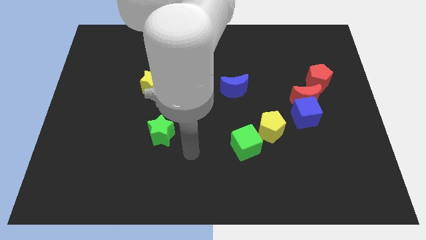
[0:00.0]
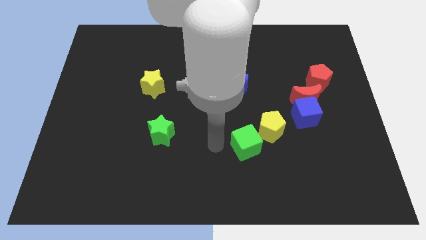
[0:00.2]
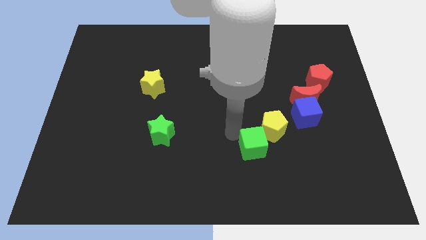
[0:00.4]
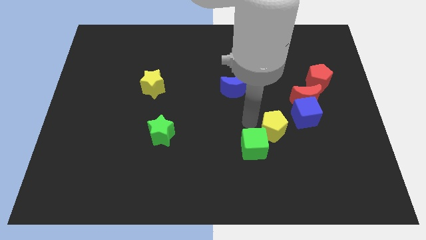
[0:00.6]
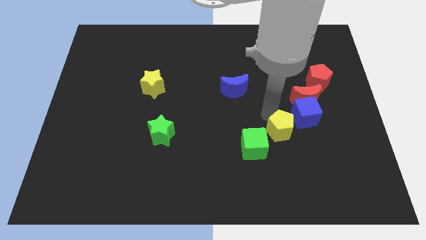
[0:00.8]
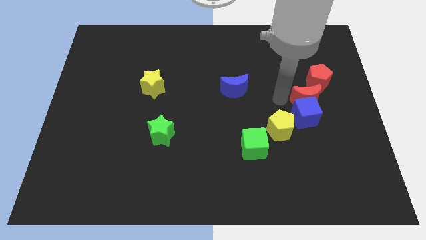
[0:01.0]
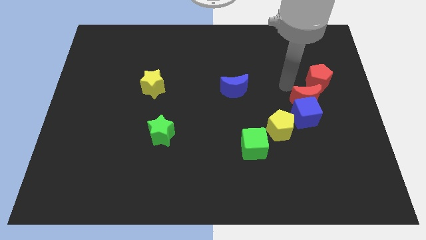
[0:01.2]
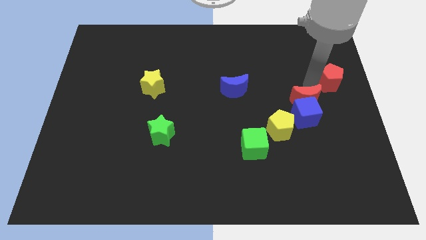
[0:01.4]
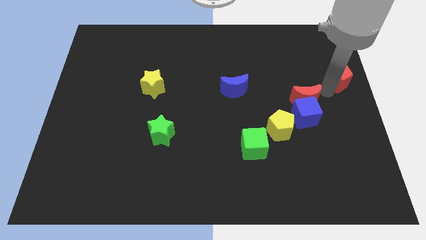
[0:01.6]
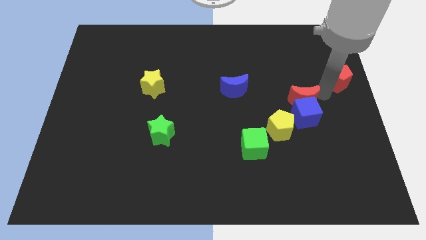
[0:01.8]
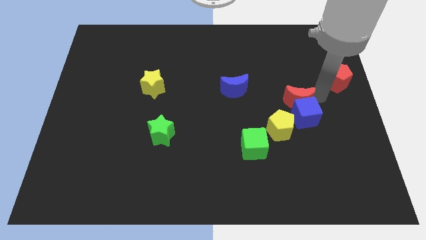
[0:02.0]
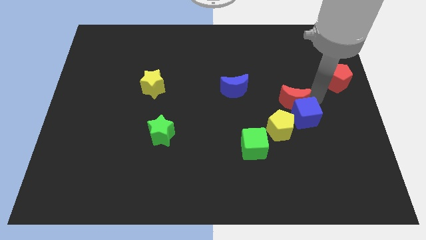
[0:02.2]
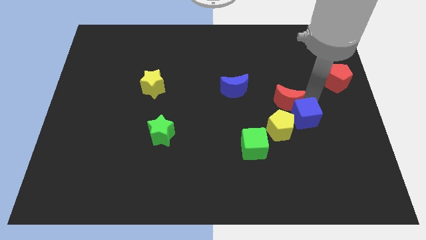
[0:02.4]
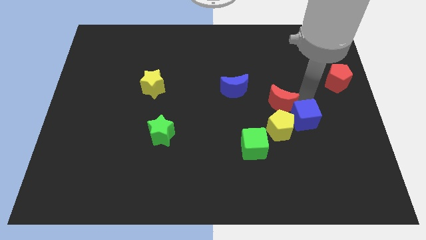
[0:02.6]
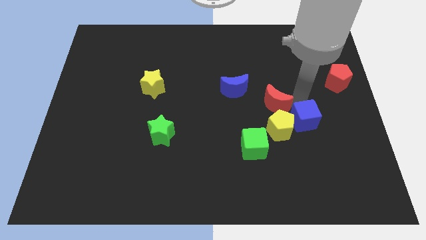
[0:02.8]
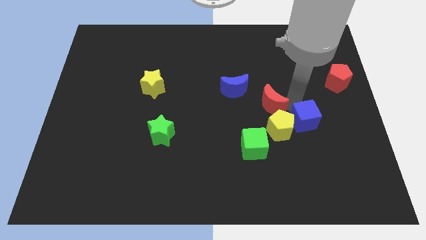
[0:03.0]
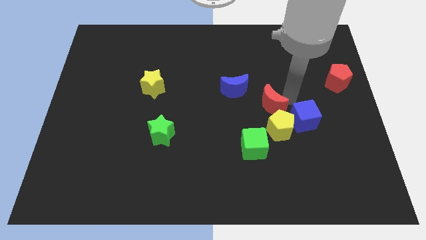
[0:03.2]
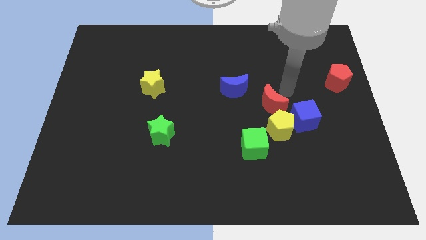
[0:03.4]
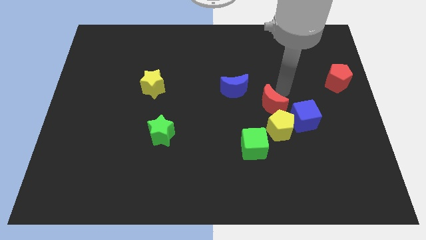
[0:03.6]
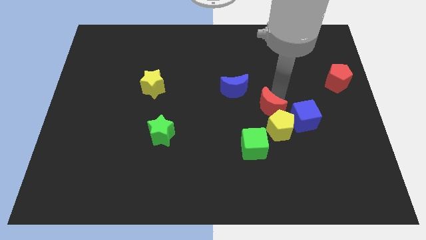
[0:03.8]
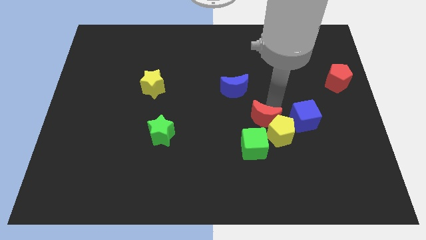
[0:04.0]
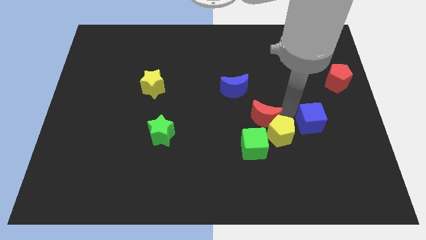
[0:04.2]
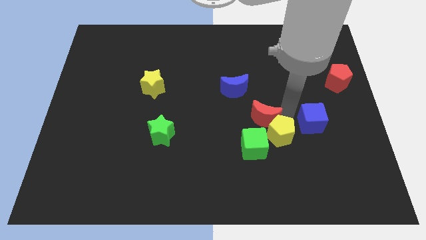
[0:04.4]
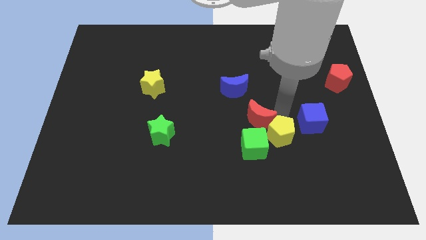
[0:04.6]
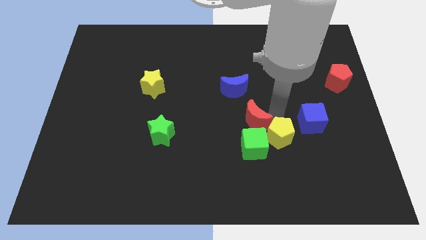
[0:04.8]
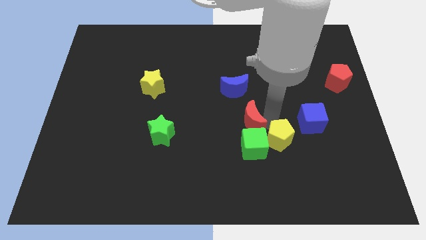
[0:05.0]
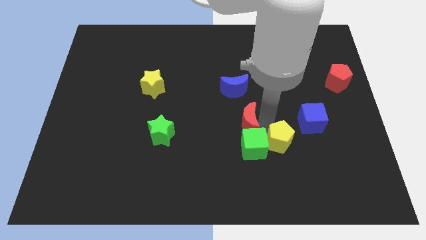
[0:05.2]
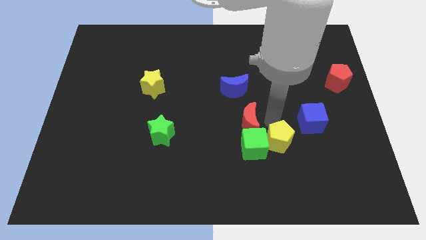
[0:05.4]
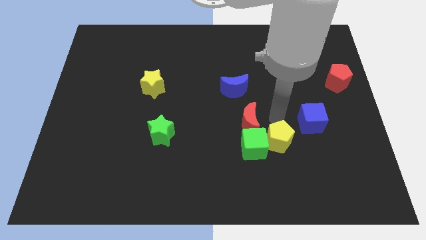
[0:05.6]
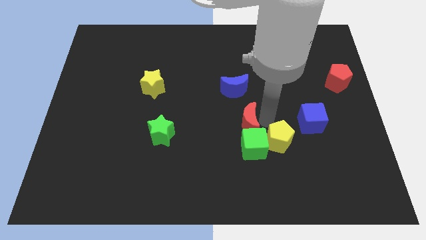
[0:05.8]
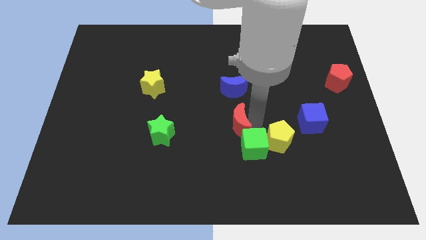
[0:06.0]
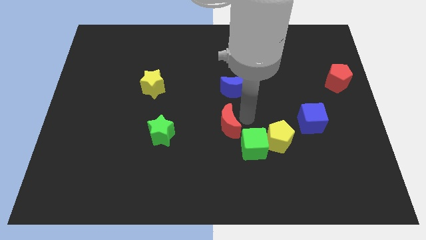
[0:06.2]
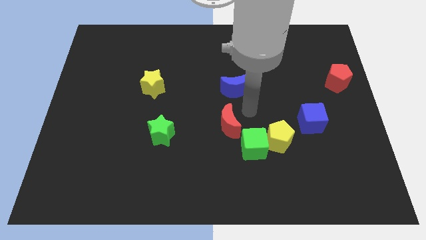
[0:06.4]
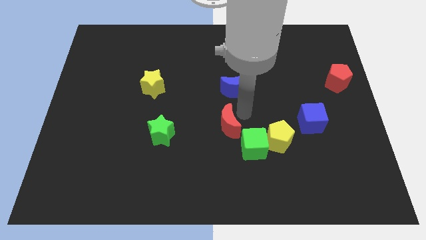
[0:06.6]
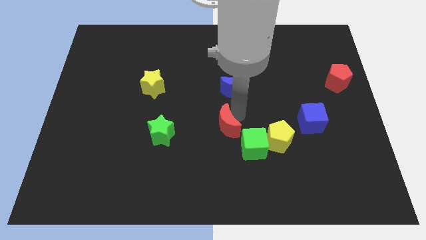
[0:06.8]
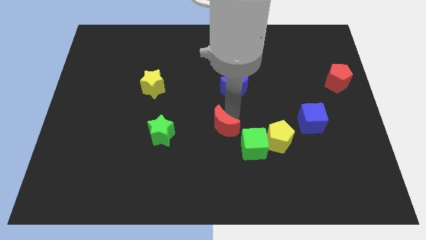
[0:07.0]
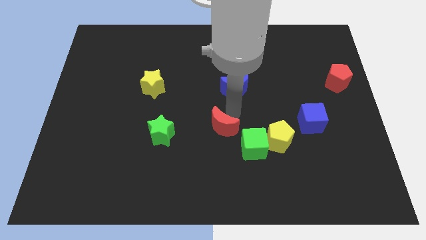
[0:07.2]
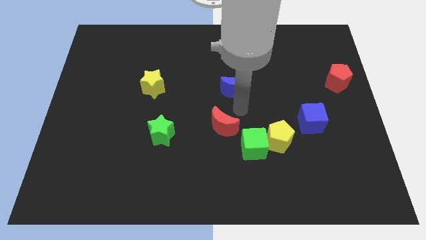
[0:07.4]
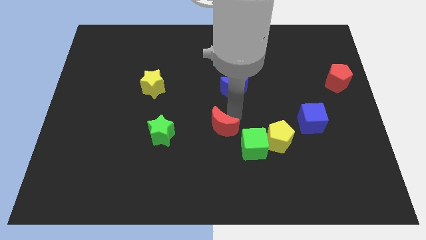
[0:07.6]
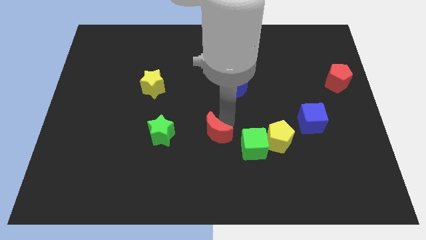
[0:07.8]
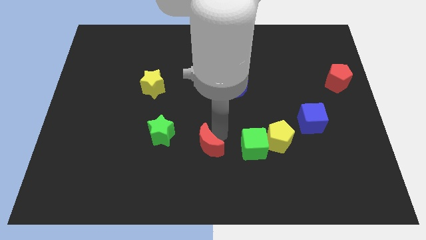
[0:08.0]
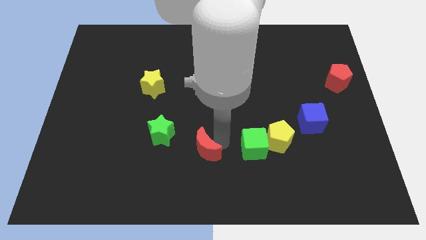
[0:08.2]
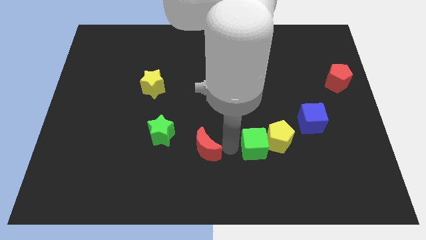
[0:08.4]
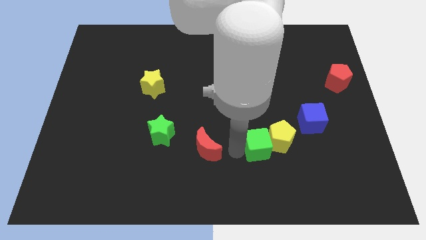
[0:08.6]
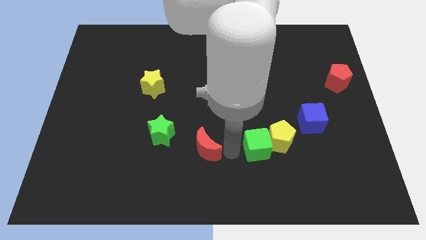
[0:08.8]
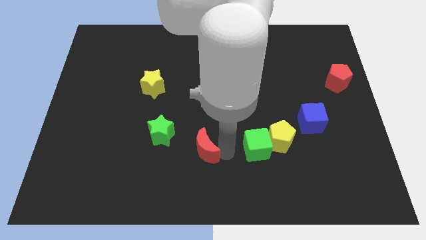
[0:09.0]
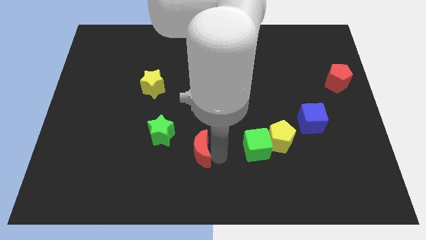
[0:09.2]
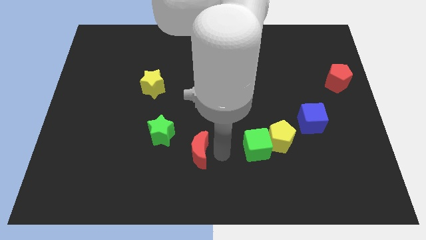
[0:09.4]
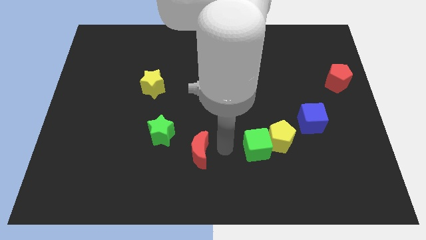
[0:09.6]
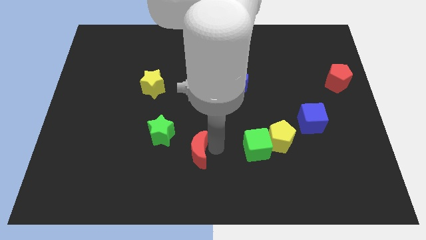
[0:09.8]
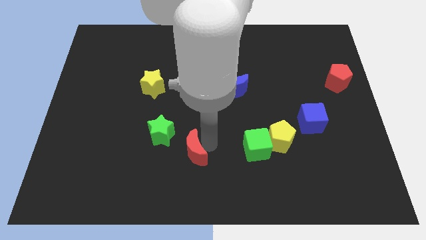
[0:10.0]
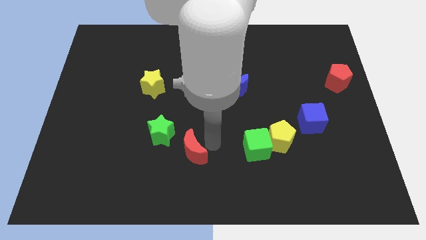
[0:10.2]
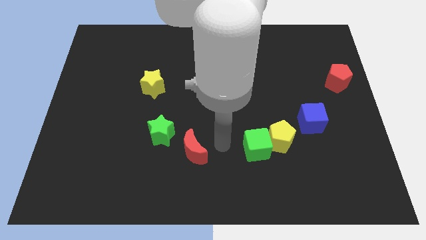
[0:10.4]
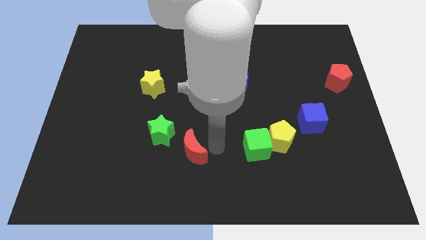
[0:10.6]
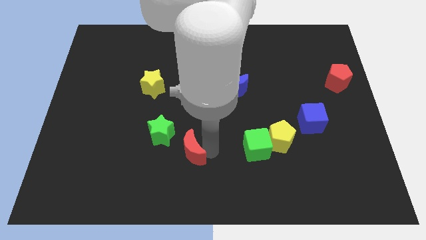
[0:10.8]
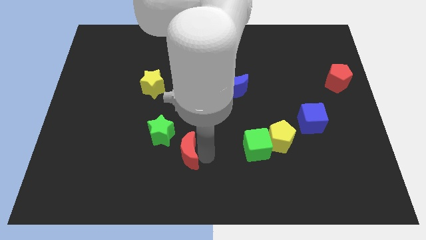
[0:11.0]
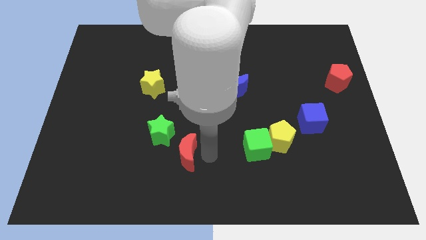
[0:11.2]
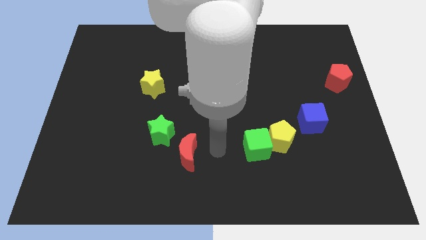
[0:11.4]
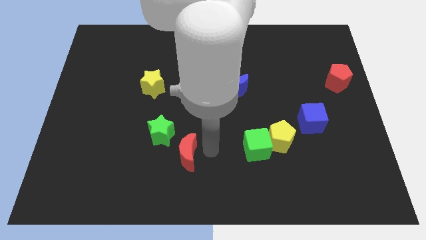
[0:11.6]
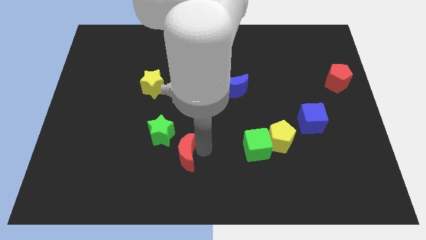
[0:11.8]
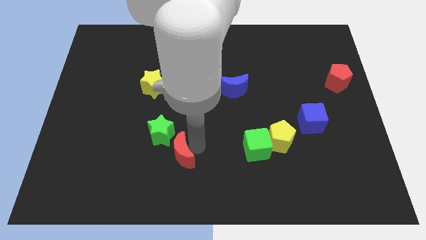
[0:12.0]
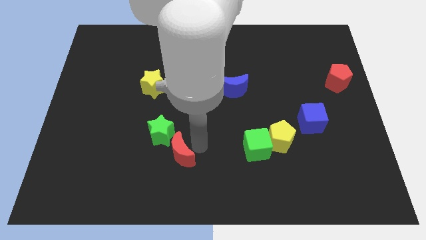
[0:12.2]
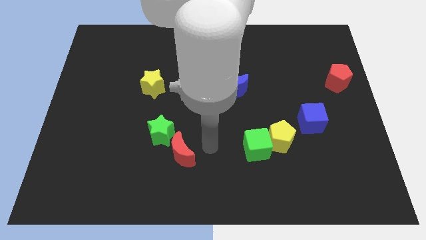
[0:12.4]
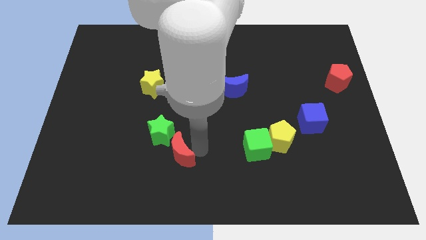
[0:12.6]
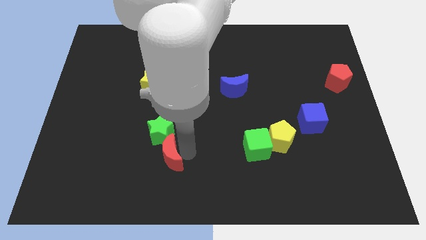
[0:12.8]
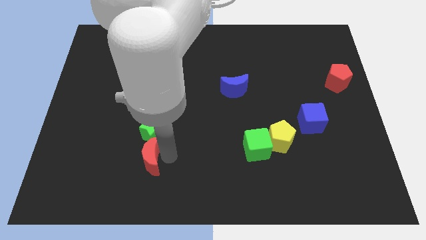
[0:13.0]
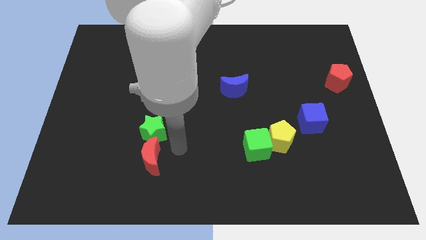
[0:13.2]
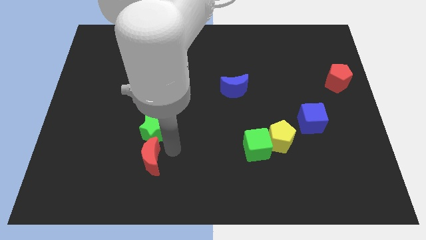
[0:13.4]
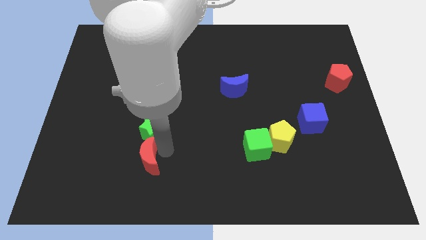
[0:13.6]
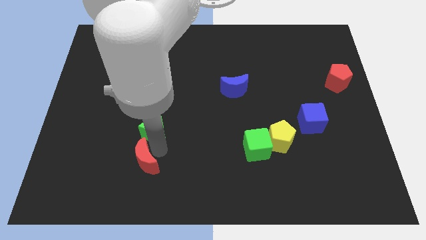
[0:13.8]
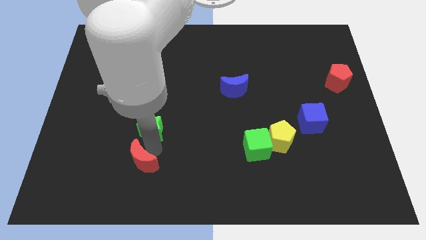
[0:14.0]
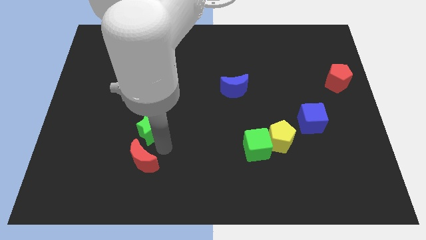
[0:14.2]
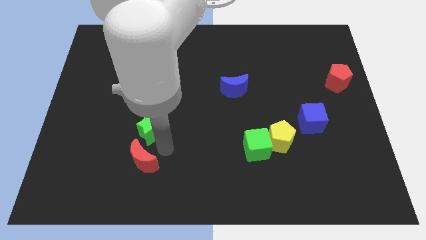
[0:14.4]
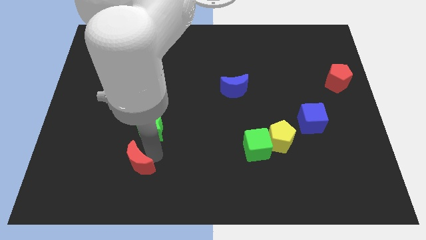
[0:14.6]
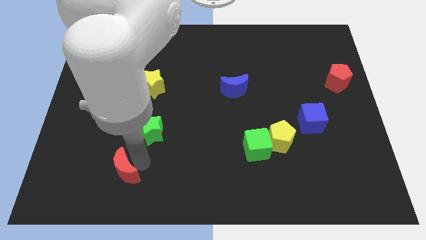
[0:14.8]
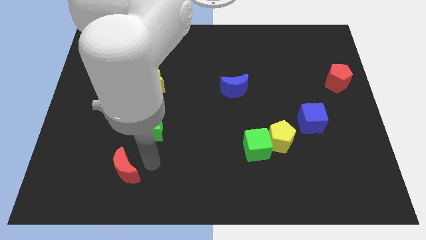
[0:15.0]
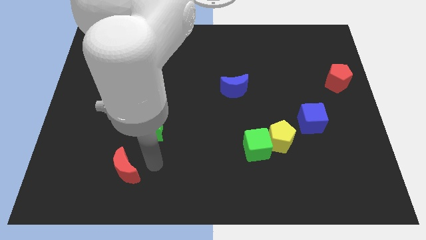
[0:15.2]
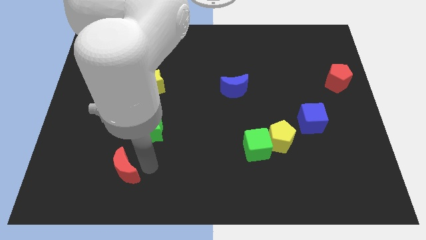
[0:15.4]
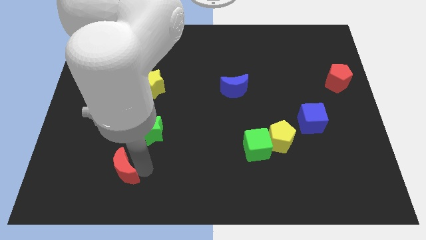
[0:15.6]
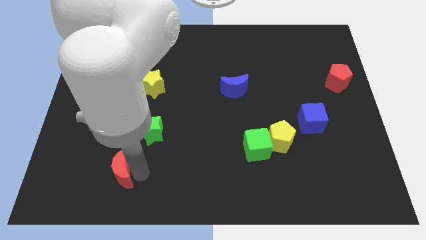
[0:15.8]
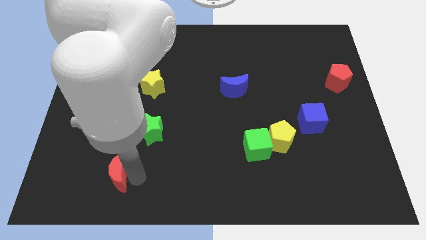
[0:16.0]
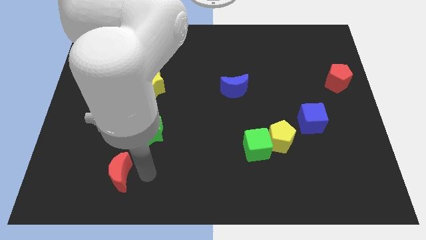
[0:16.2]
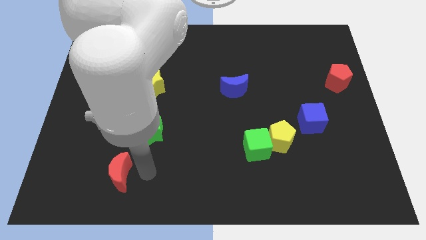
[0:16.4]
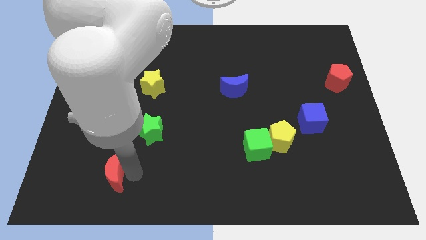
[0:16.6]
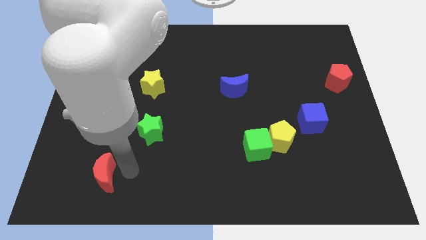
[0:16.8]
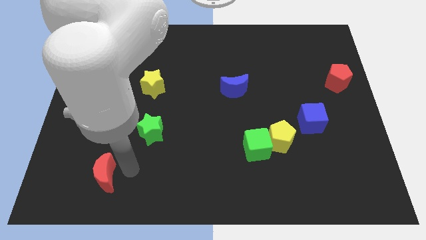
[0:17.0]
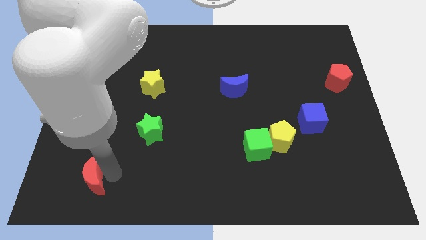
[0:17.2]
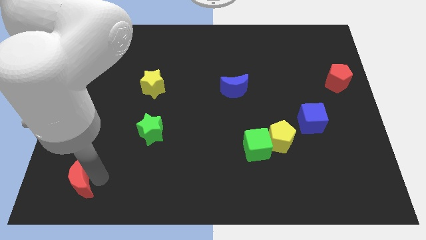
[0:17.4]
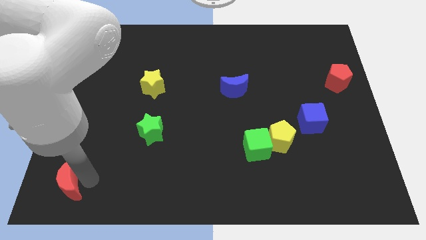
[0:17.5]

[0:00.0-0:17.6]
put the red moon to the bottom left corner
